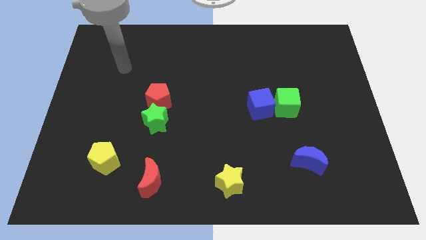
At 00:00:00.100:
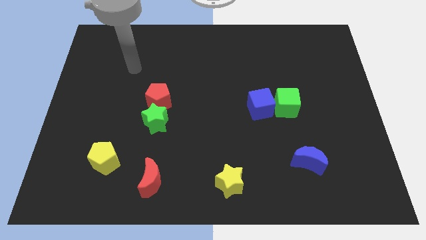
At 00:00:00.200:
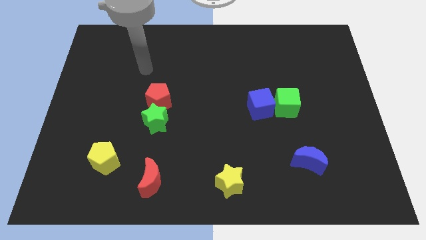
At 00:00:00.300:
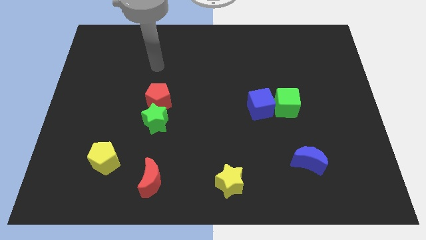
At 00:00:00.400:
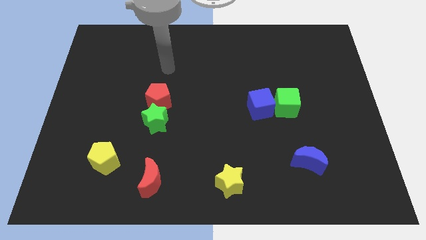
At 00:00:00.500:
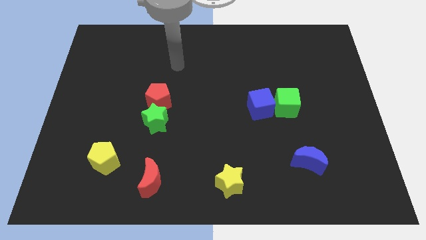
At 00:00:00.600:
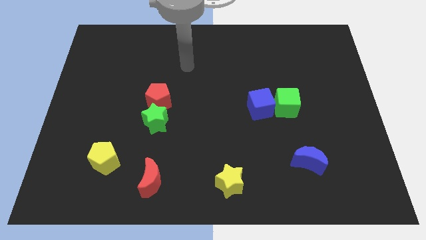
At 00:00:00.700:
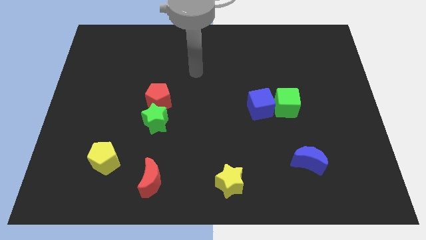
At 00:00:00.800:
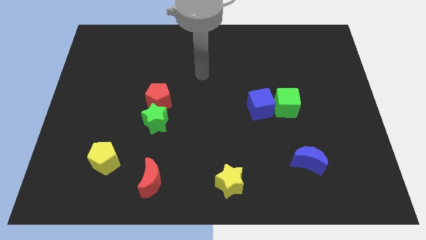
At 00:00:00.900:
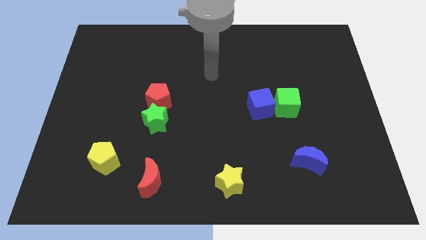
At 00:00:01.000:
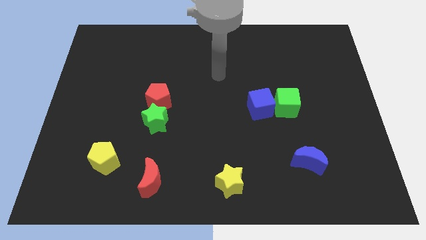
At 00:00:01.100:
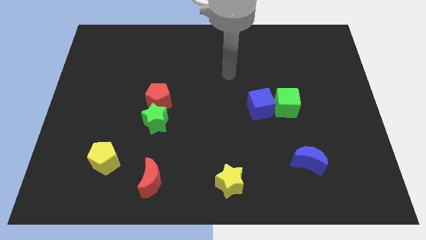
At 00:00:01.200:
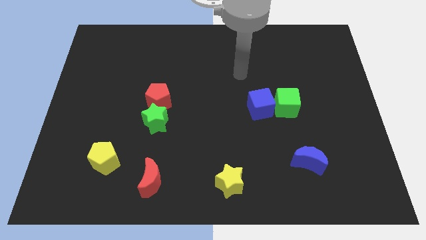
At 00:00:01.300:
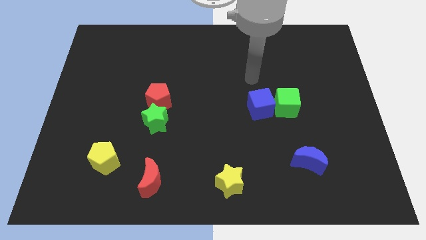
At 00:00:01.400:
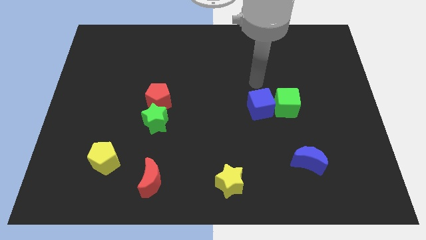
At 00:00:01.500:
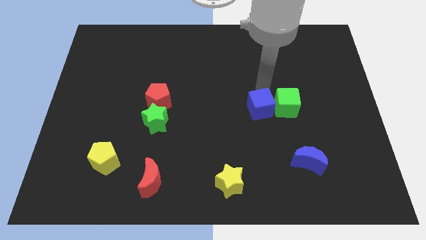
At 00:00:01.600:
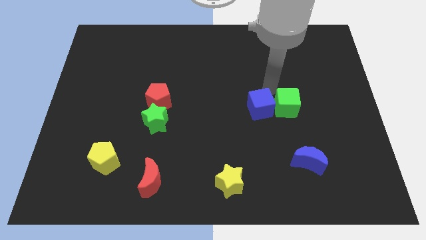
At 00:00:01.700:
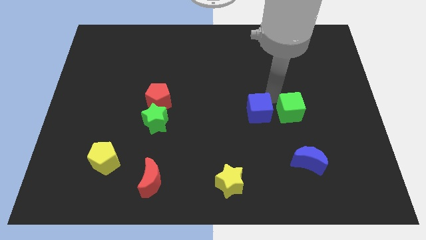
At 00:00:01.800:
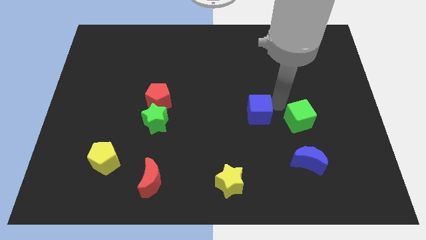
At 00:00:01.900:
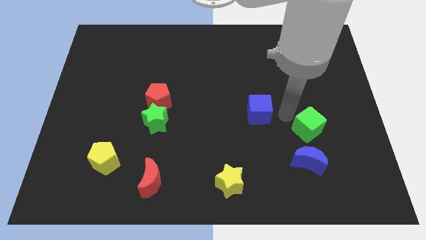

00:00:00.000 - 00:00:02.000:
move the blue cube away from the green cube

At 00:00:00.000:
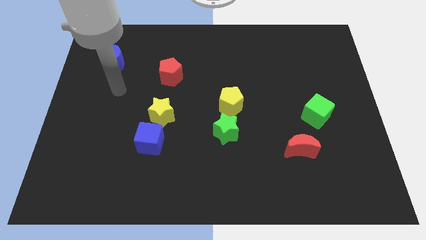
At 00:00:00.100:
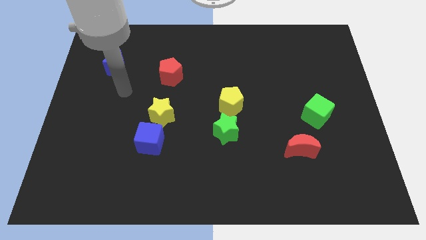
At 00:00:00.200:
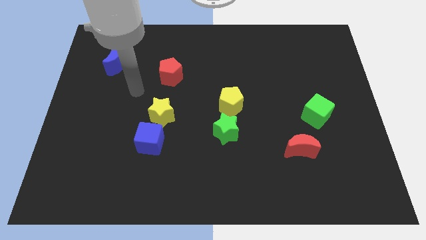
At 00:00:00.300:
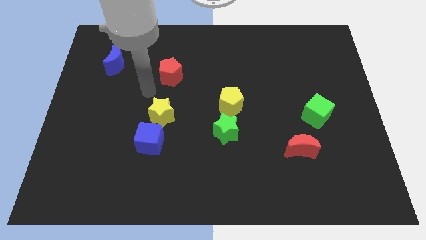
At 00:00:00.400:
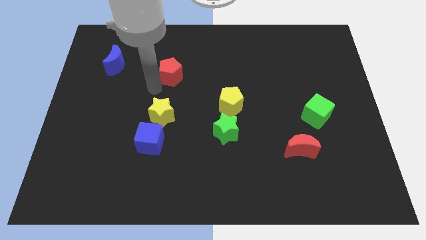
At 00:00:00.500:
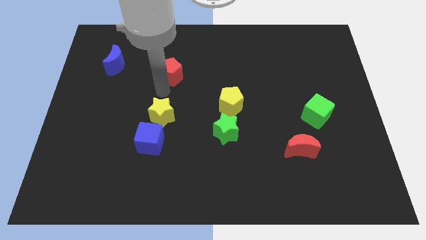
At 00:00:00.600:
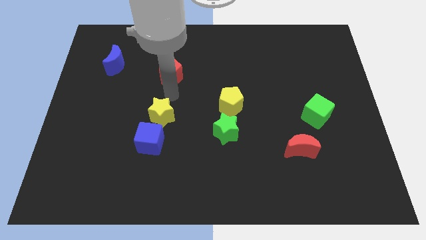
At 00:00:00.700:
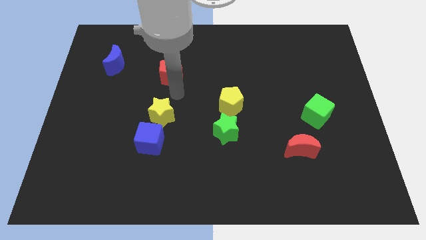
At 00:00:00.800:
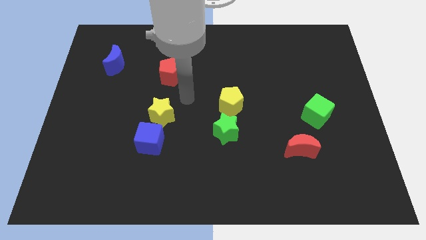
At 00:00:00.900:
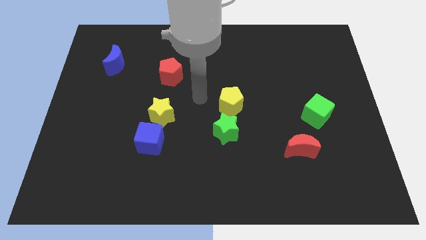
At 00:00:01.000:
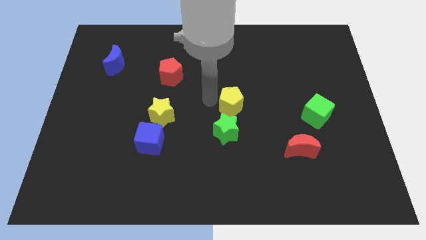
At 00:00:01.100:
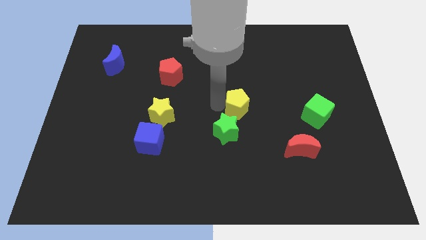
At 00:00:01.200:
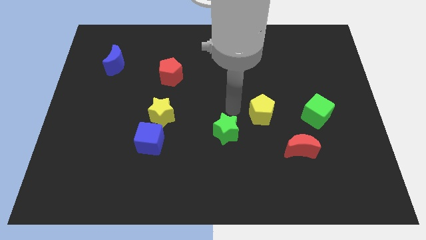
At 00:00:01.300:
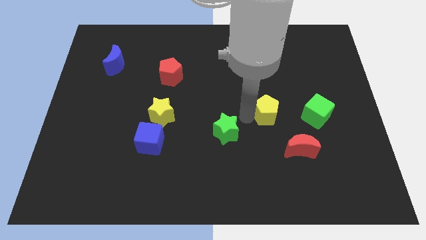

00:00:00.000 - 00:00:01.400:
separate the green star from the yellow pentagon

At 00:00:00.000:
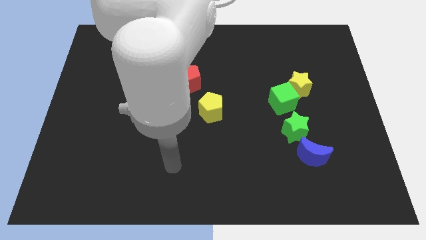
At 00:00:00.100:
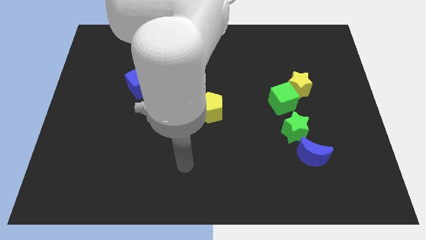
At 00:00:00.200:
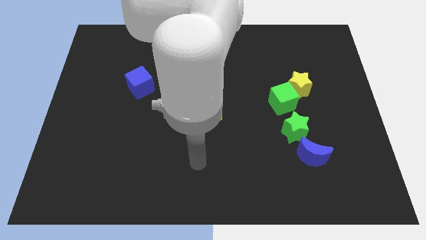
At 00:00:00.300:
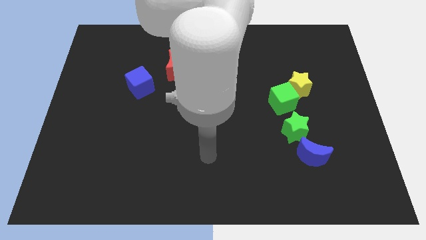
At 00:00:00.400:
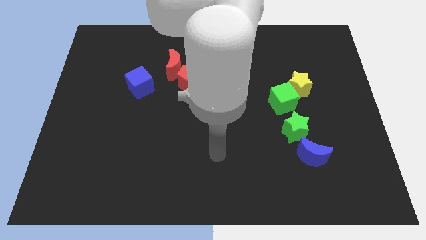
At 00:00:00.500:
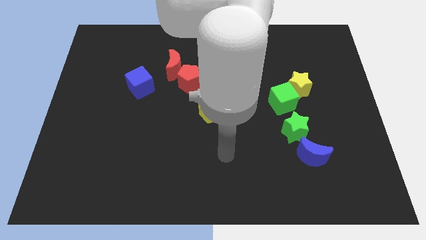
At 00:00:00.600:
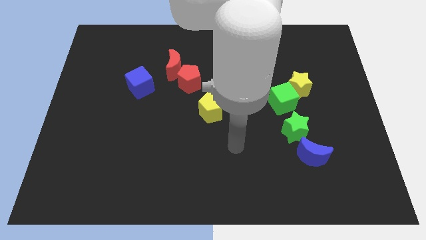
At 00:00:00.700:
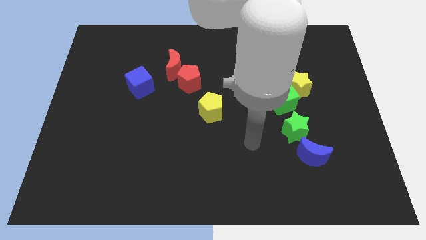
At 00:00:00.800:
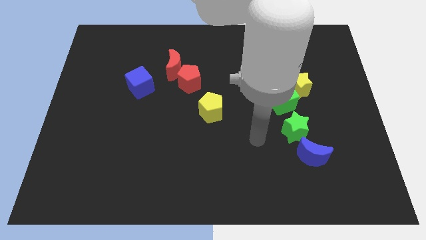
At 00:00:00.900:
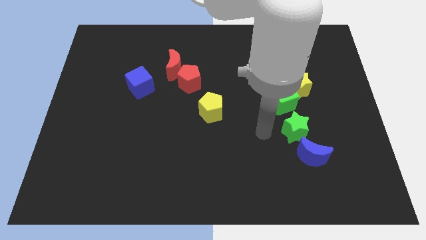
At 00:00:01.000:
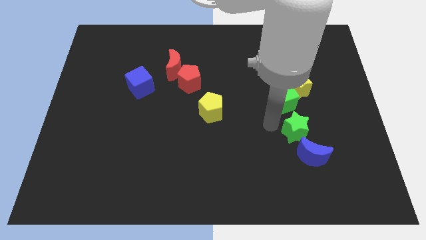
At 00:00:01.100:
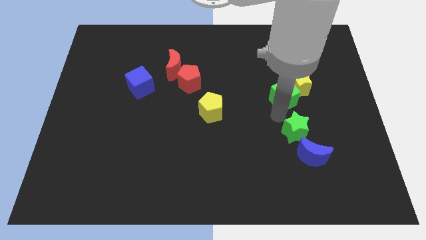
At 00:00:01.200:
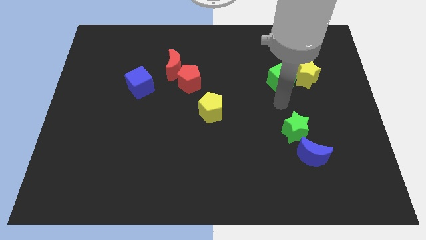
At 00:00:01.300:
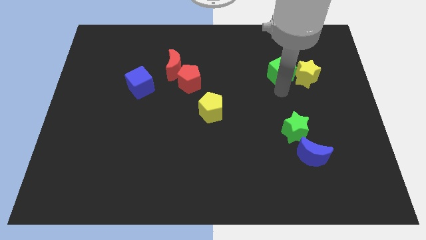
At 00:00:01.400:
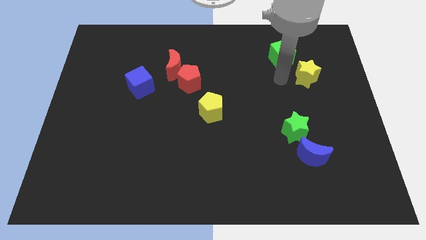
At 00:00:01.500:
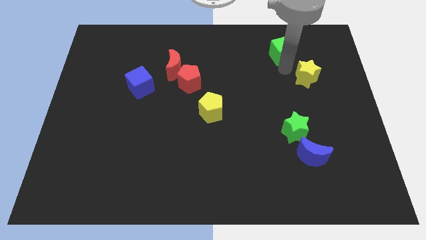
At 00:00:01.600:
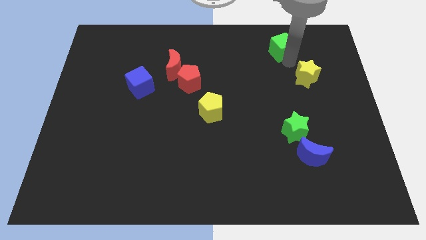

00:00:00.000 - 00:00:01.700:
pull the yellow star apart from the green cube

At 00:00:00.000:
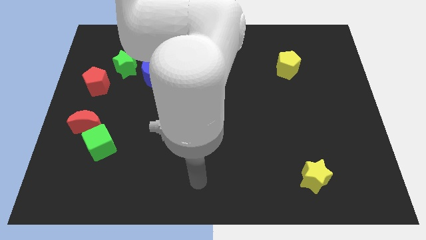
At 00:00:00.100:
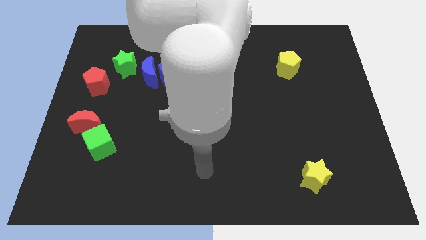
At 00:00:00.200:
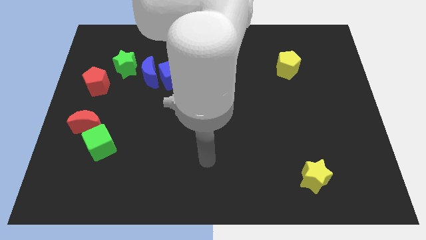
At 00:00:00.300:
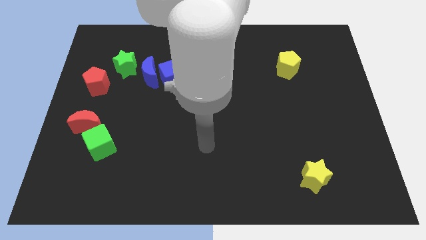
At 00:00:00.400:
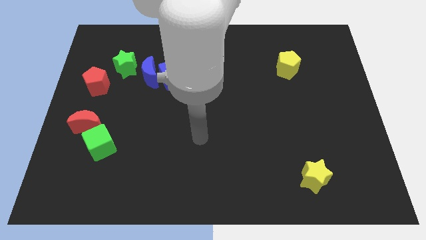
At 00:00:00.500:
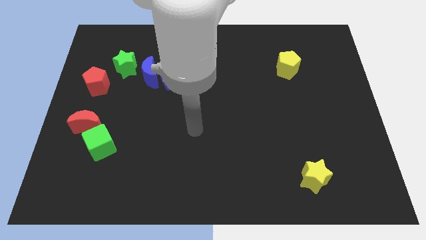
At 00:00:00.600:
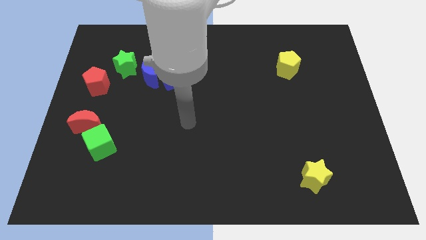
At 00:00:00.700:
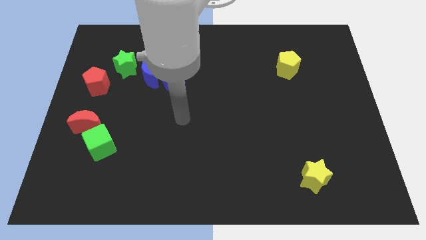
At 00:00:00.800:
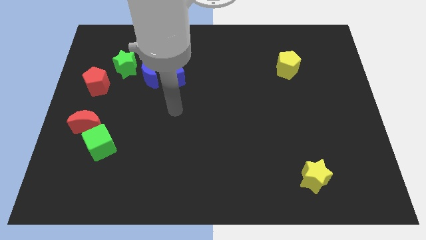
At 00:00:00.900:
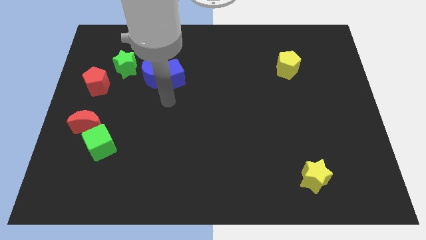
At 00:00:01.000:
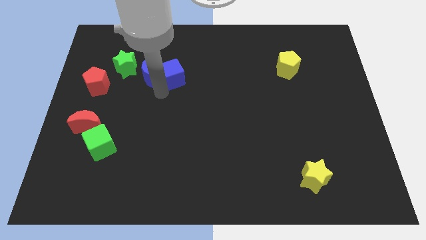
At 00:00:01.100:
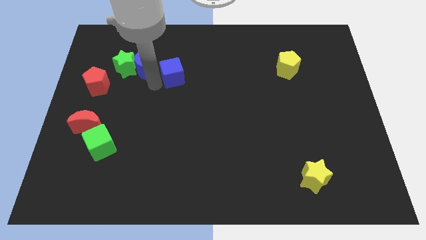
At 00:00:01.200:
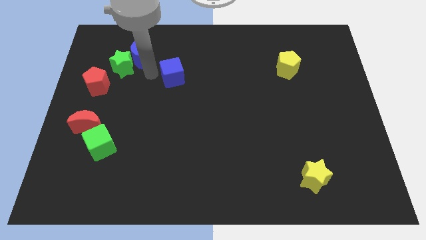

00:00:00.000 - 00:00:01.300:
move the blue cube away from the blue moon

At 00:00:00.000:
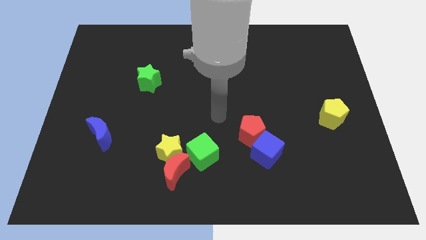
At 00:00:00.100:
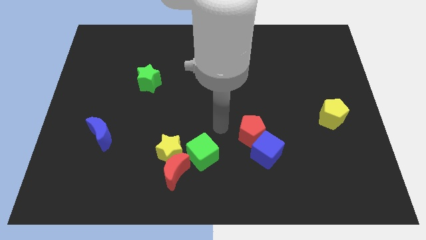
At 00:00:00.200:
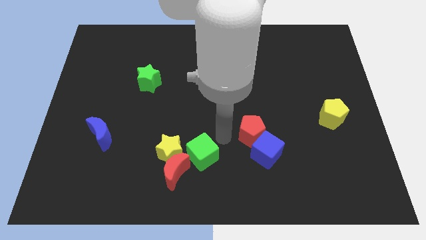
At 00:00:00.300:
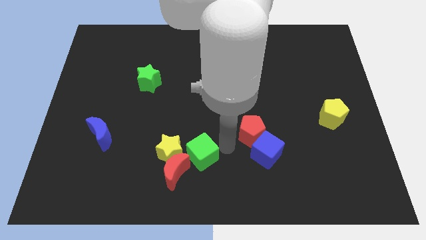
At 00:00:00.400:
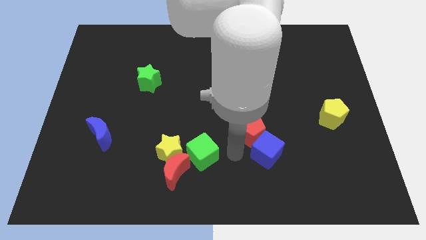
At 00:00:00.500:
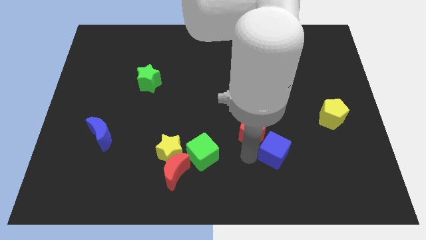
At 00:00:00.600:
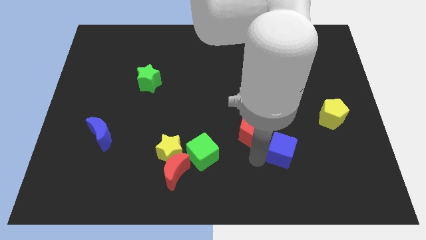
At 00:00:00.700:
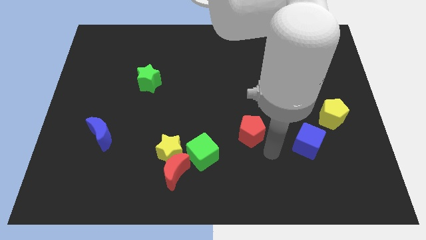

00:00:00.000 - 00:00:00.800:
pull the red pentagon apart from the blue cube

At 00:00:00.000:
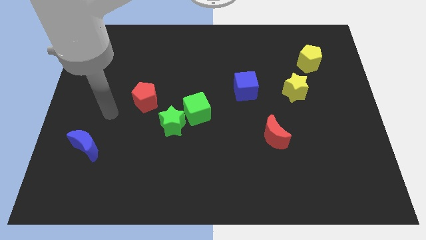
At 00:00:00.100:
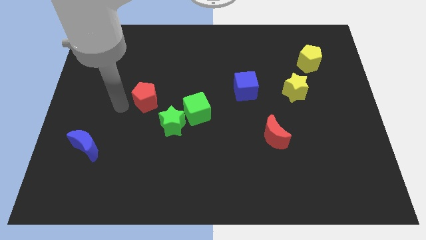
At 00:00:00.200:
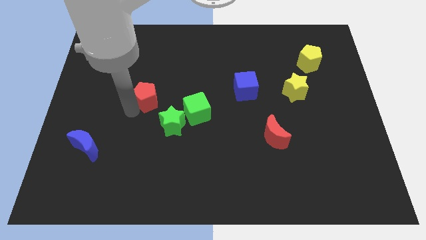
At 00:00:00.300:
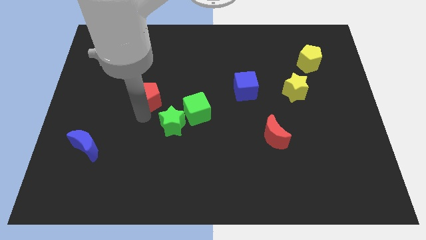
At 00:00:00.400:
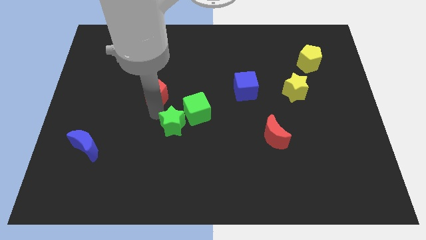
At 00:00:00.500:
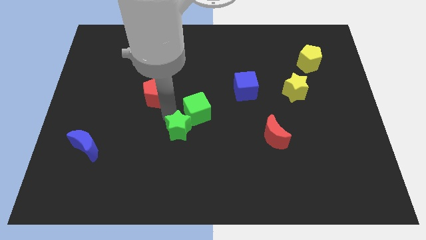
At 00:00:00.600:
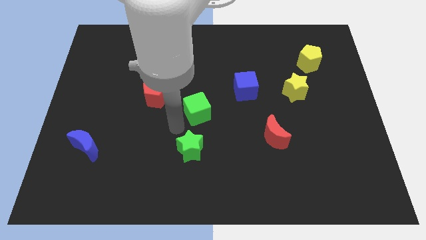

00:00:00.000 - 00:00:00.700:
move the green cube away from the green star

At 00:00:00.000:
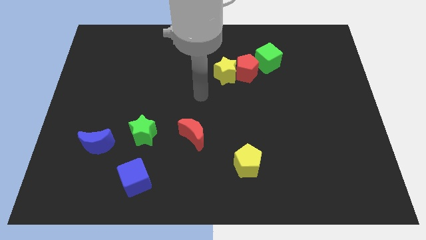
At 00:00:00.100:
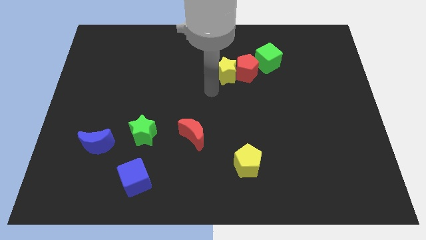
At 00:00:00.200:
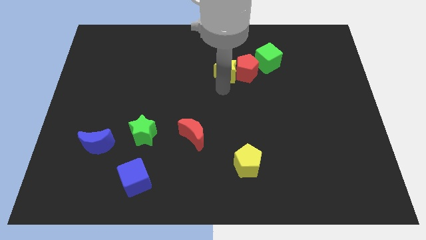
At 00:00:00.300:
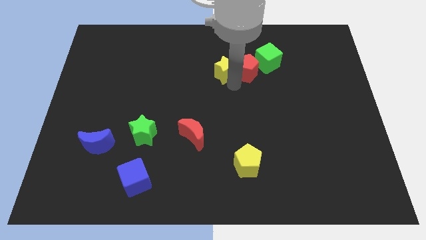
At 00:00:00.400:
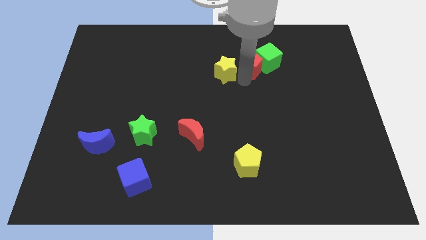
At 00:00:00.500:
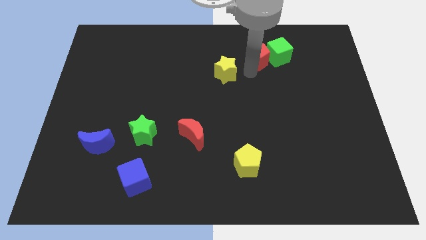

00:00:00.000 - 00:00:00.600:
separate the yellow star from the red pentagon

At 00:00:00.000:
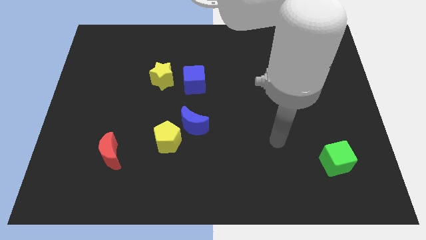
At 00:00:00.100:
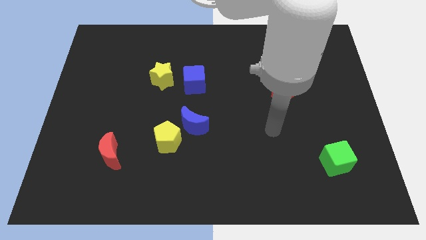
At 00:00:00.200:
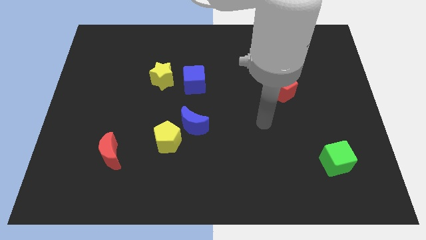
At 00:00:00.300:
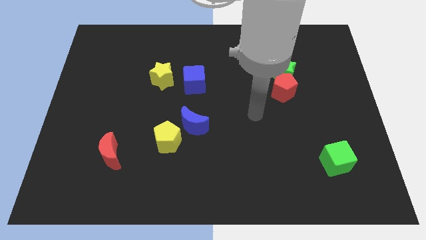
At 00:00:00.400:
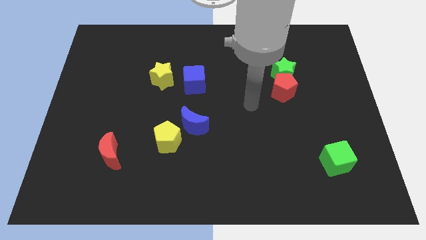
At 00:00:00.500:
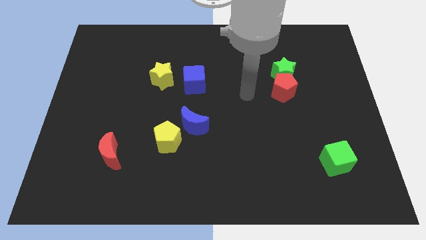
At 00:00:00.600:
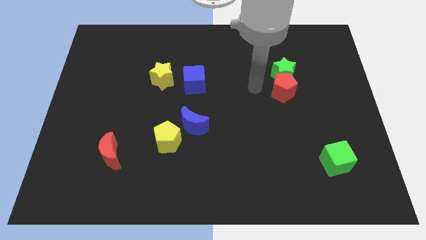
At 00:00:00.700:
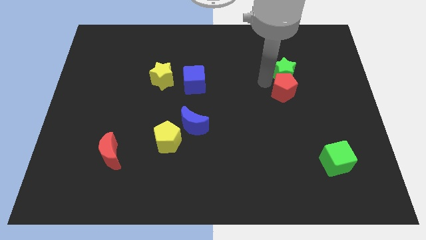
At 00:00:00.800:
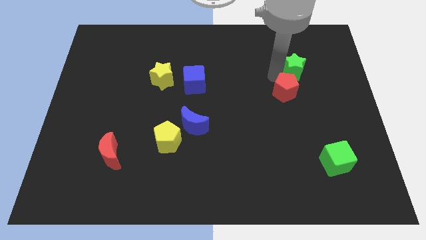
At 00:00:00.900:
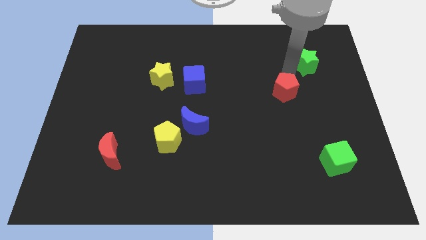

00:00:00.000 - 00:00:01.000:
move the red pentagon away from the green star
